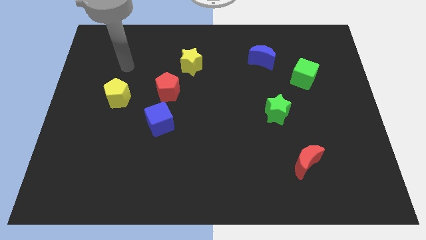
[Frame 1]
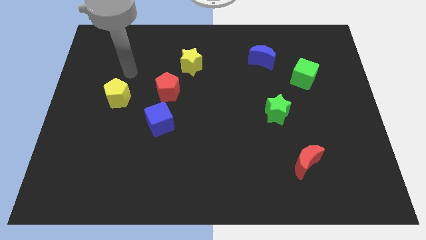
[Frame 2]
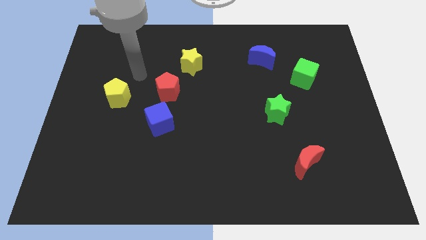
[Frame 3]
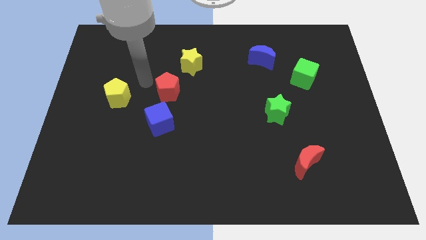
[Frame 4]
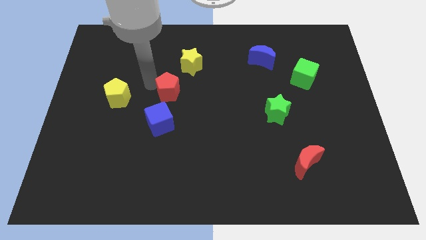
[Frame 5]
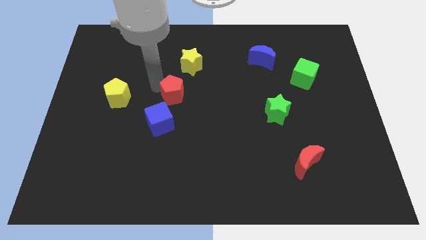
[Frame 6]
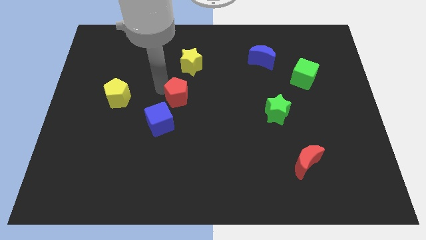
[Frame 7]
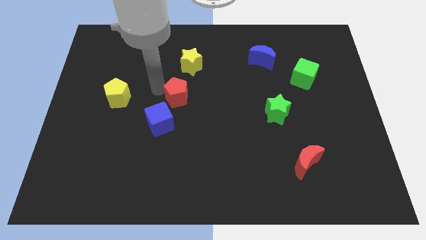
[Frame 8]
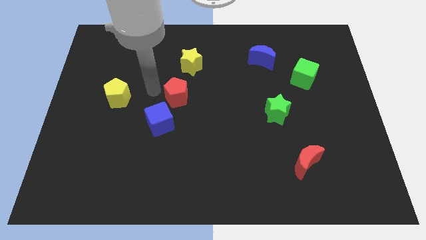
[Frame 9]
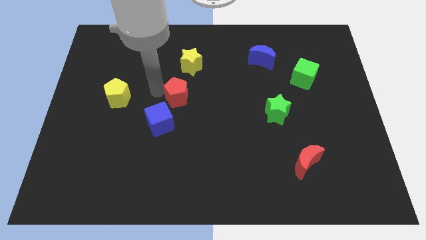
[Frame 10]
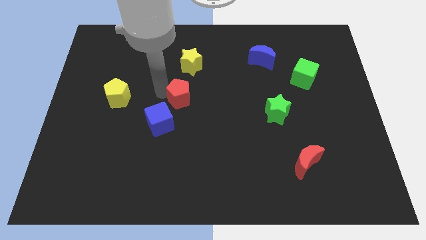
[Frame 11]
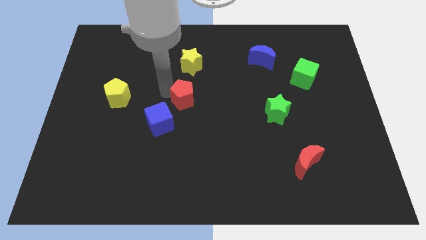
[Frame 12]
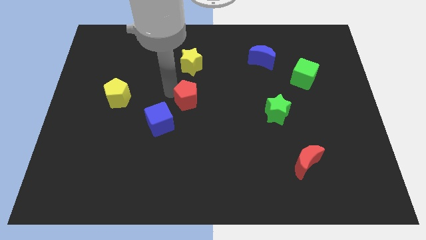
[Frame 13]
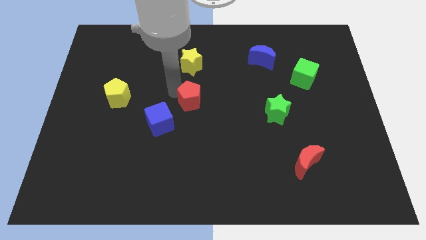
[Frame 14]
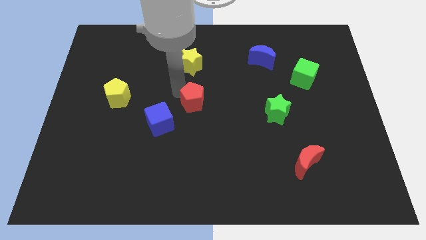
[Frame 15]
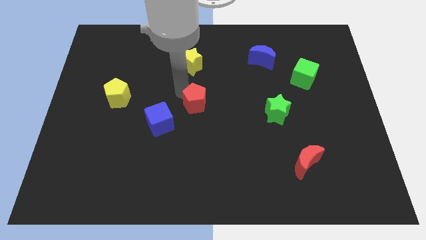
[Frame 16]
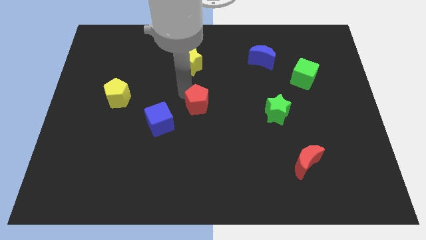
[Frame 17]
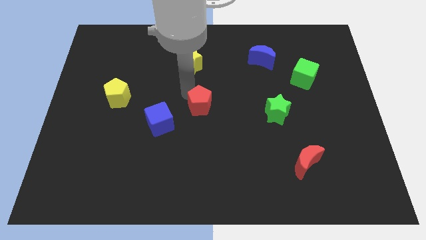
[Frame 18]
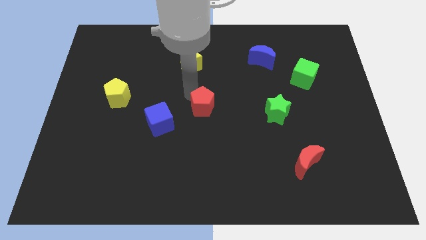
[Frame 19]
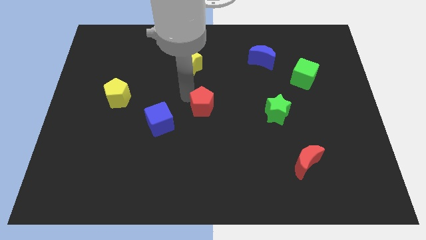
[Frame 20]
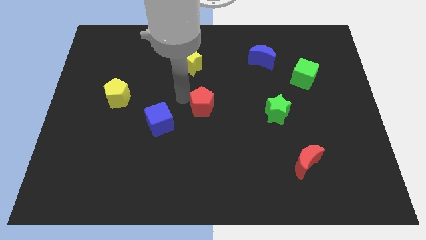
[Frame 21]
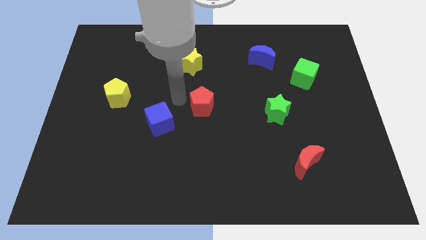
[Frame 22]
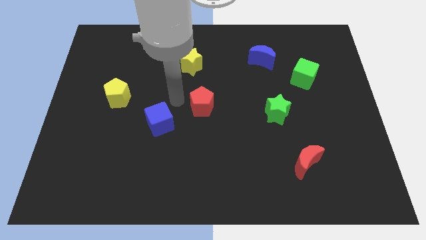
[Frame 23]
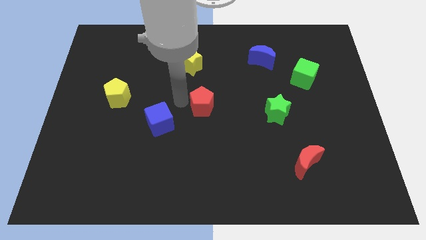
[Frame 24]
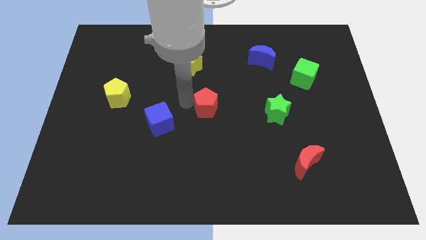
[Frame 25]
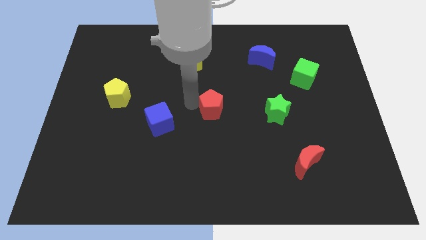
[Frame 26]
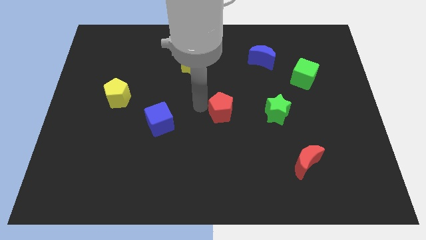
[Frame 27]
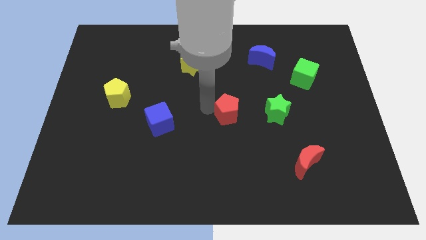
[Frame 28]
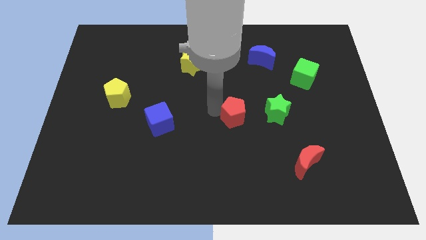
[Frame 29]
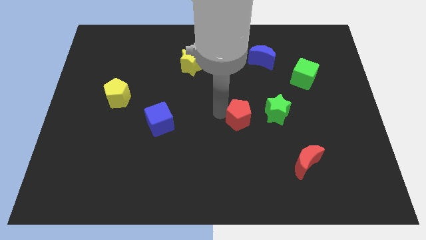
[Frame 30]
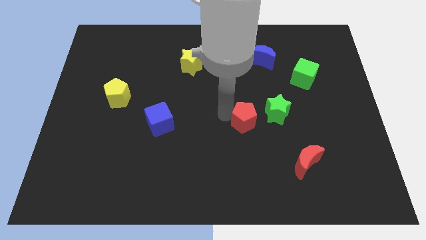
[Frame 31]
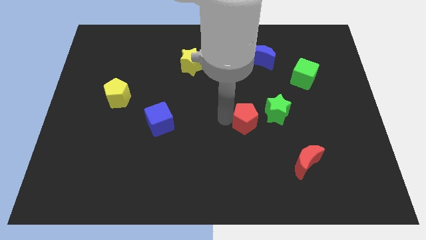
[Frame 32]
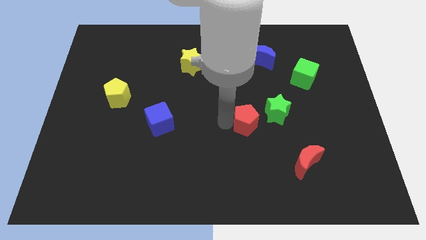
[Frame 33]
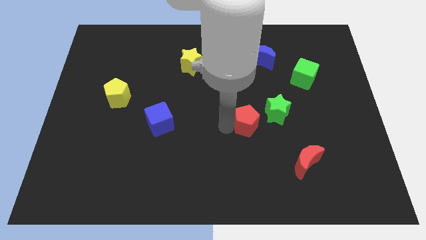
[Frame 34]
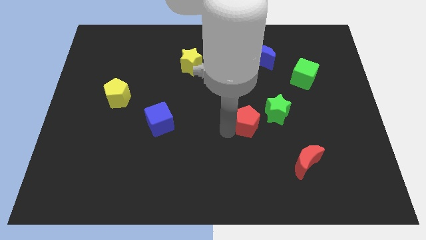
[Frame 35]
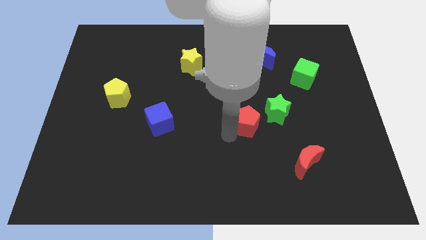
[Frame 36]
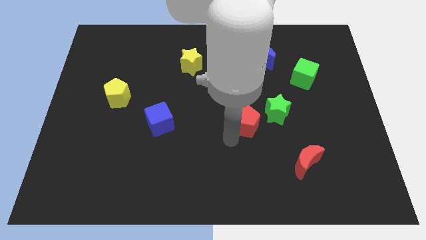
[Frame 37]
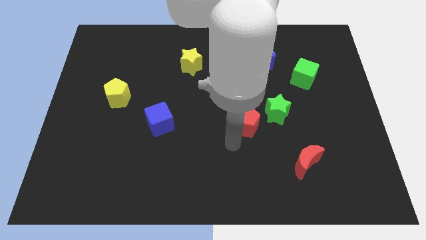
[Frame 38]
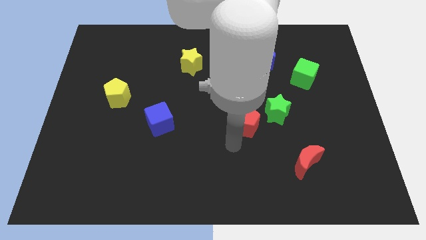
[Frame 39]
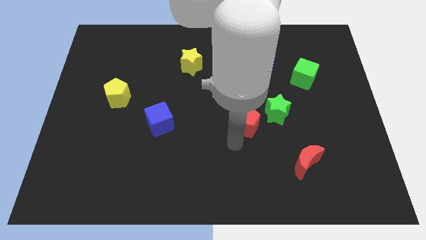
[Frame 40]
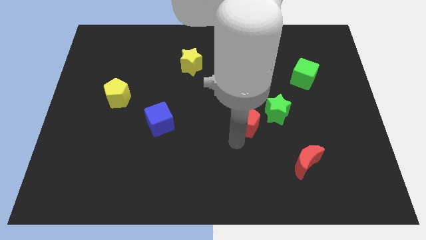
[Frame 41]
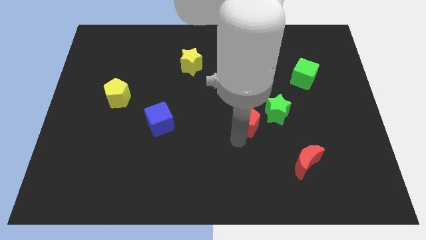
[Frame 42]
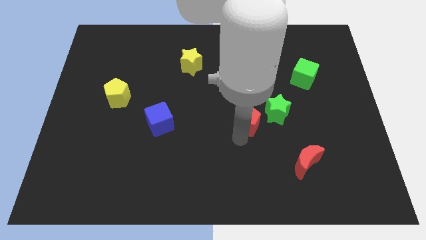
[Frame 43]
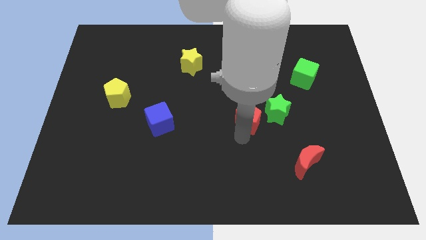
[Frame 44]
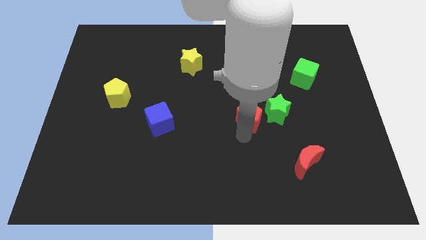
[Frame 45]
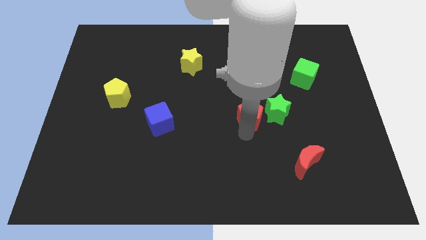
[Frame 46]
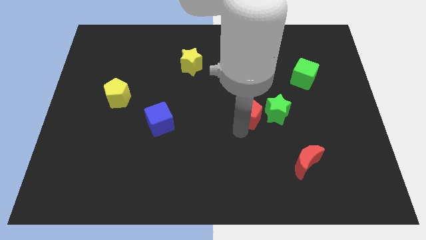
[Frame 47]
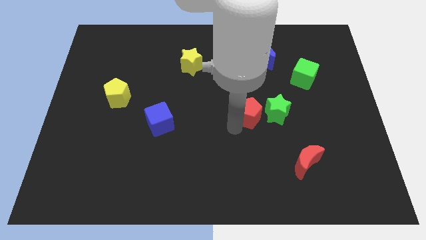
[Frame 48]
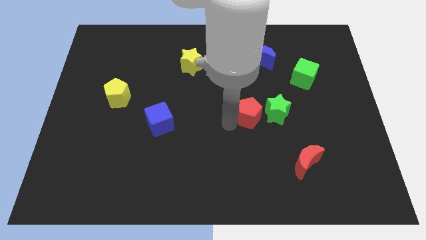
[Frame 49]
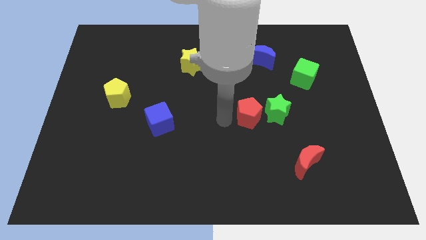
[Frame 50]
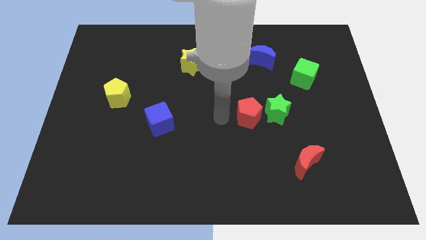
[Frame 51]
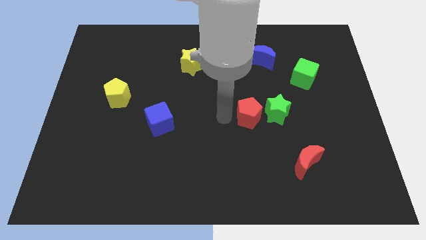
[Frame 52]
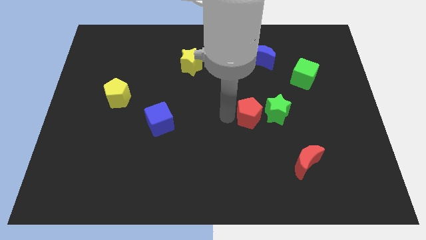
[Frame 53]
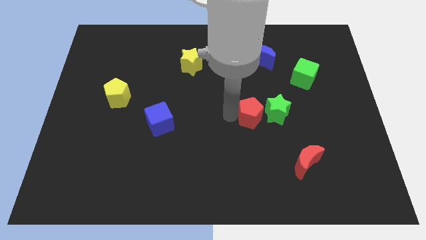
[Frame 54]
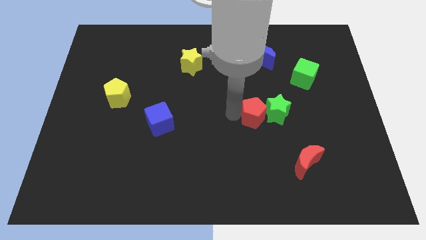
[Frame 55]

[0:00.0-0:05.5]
move the red pentagon to the green star

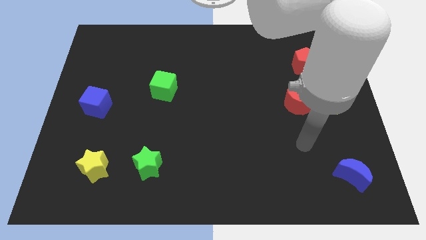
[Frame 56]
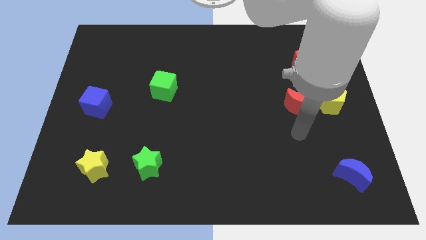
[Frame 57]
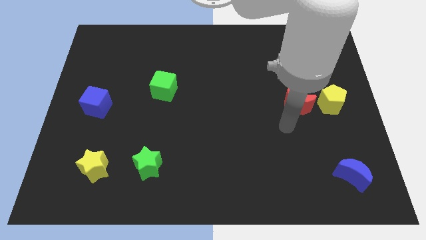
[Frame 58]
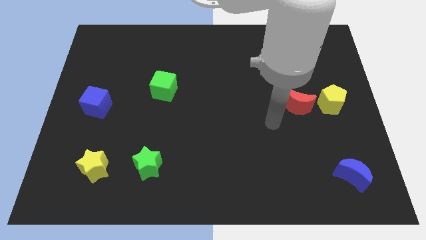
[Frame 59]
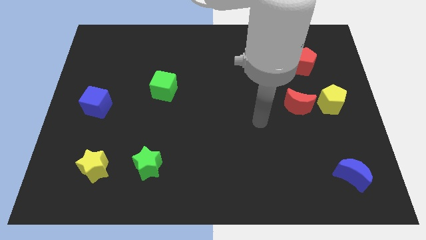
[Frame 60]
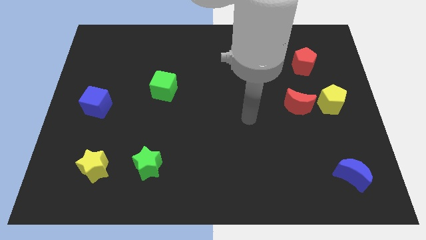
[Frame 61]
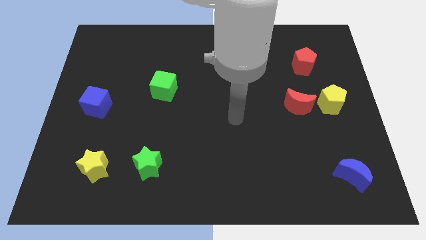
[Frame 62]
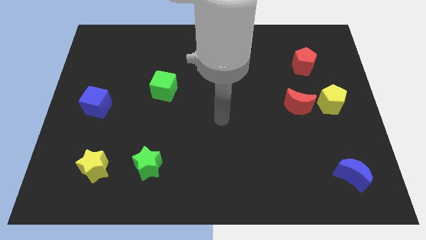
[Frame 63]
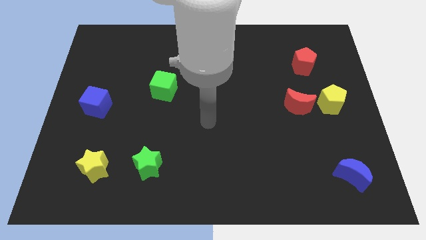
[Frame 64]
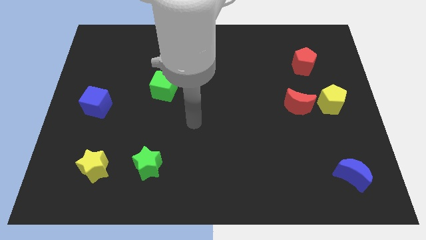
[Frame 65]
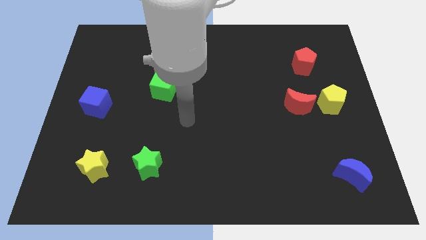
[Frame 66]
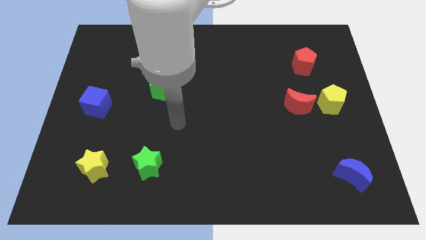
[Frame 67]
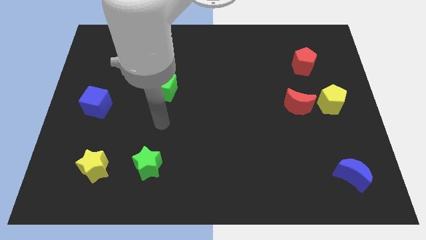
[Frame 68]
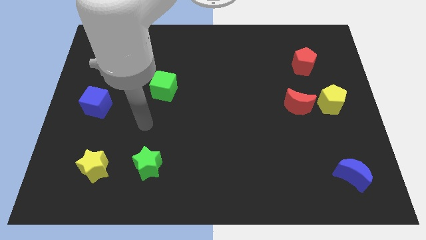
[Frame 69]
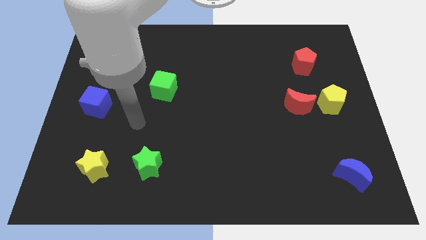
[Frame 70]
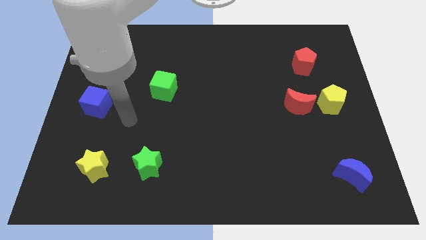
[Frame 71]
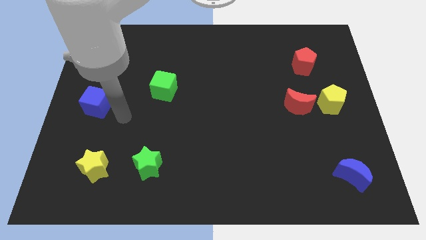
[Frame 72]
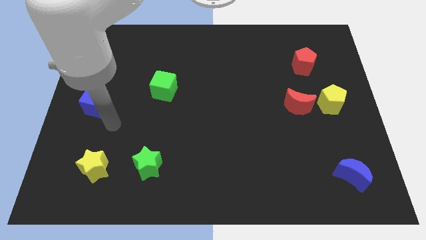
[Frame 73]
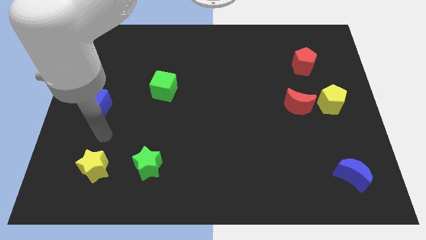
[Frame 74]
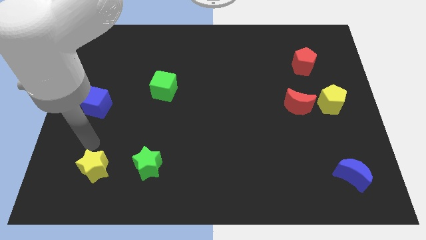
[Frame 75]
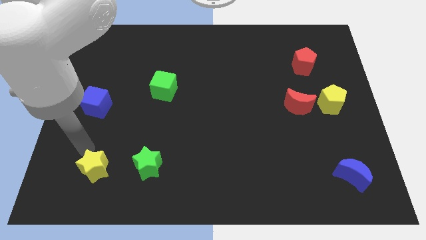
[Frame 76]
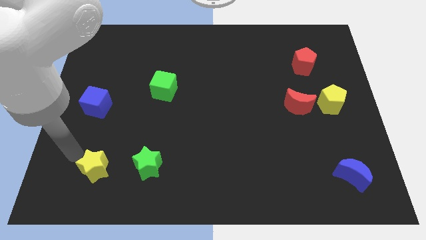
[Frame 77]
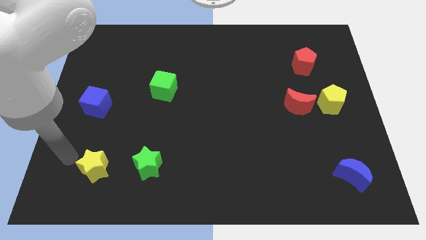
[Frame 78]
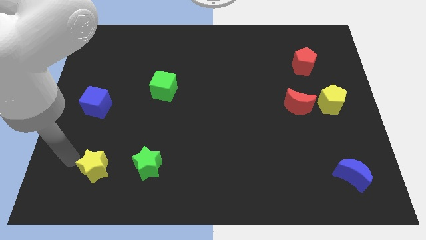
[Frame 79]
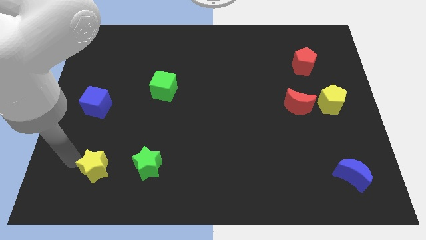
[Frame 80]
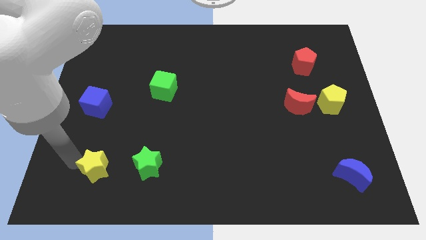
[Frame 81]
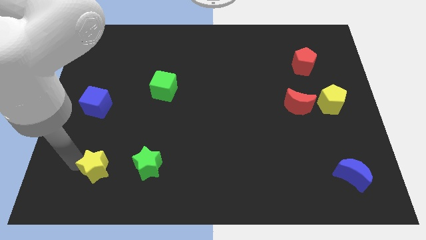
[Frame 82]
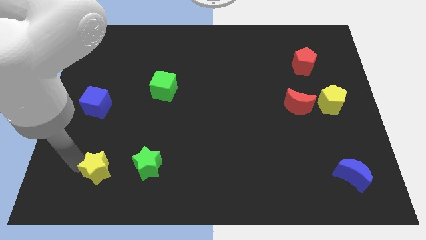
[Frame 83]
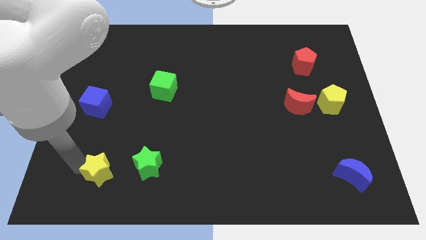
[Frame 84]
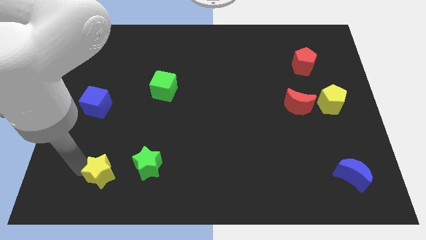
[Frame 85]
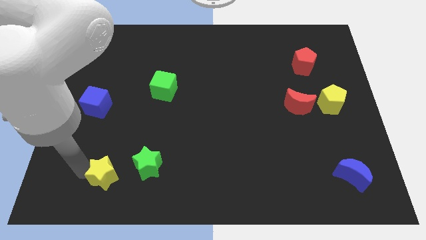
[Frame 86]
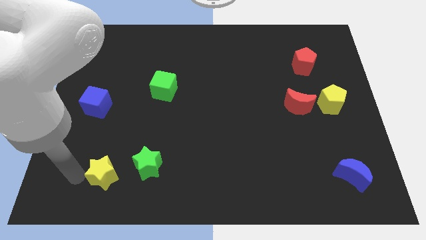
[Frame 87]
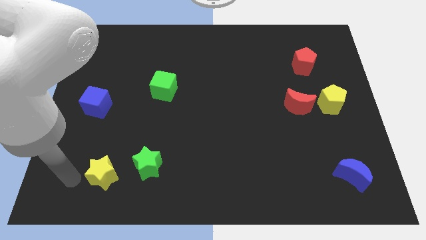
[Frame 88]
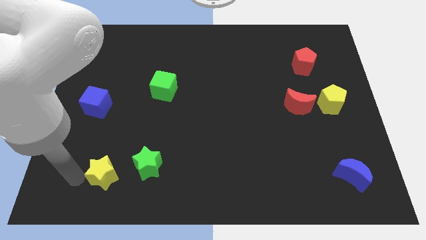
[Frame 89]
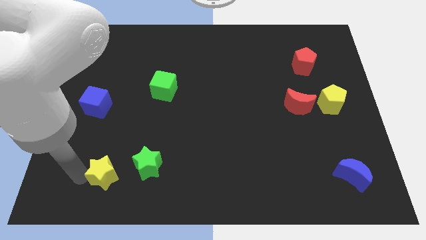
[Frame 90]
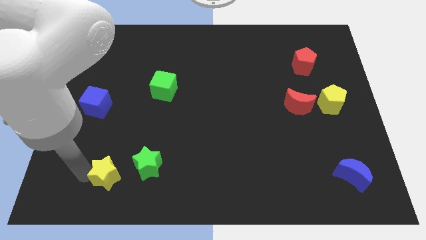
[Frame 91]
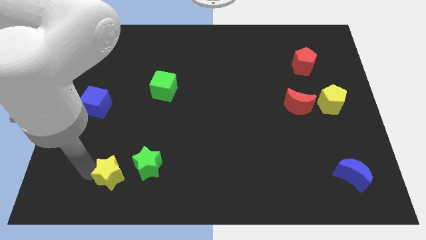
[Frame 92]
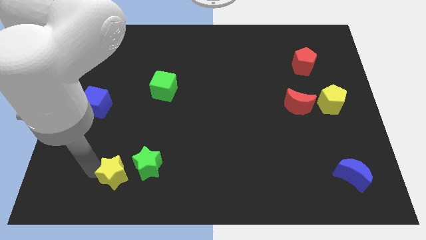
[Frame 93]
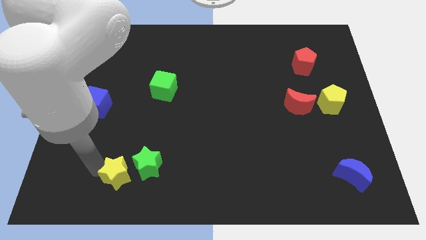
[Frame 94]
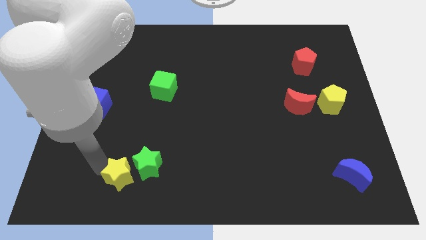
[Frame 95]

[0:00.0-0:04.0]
move the yellow star to the green star
